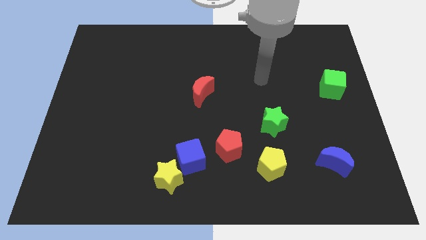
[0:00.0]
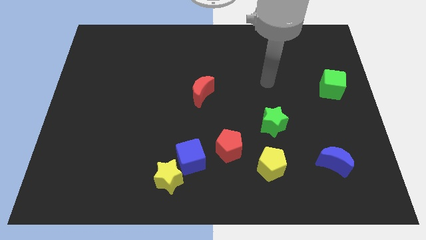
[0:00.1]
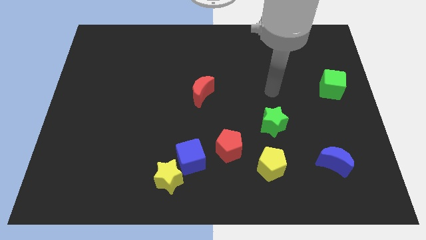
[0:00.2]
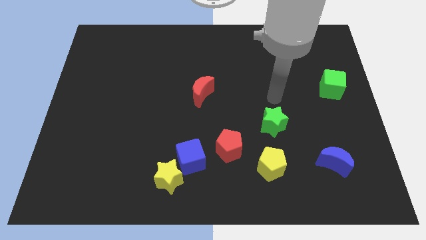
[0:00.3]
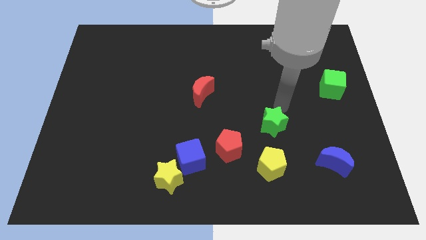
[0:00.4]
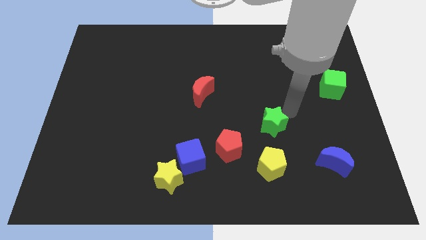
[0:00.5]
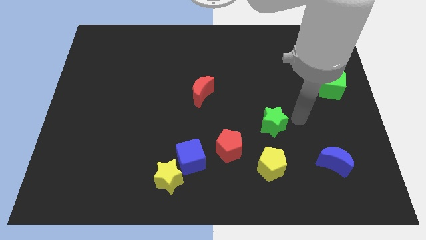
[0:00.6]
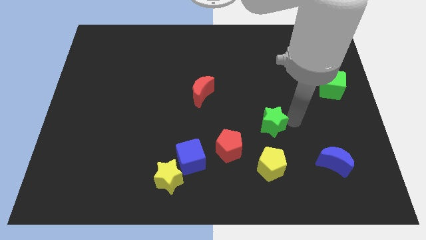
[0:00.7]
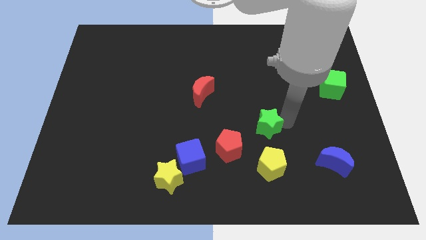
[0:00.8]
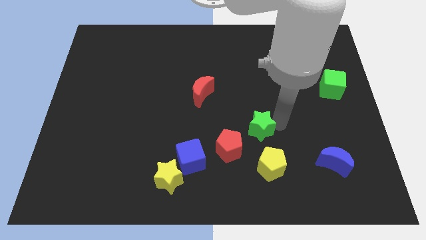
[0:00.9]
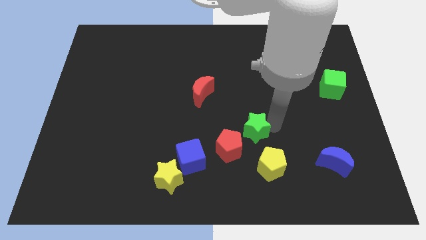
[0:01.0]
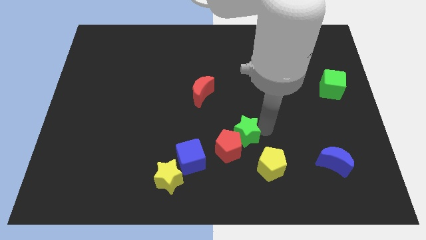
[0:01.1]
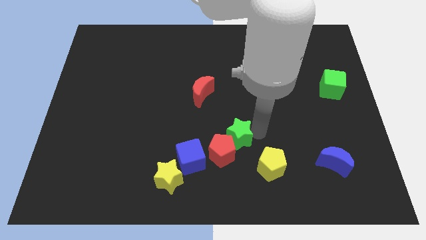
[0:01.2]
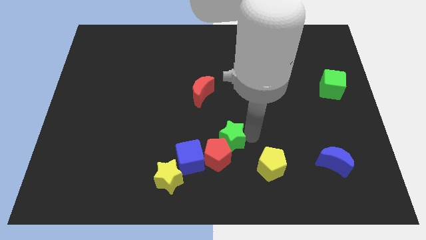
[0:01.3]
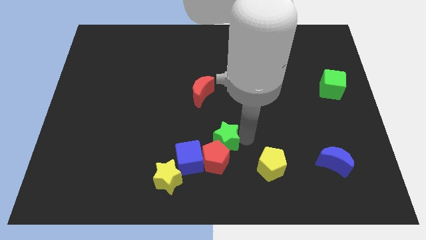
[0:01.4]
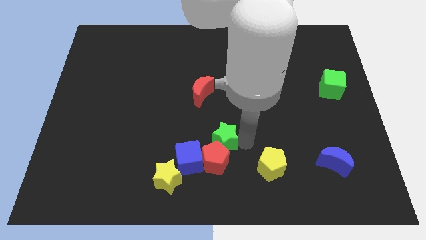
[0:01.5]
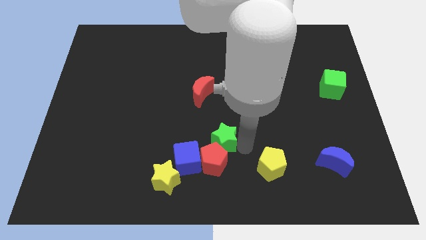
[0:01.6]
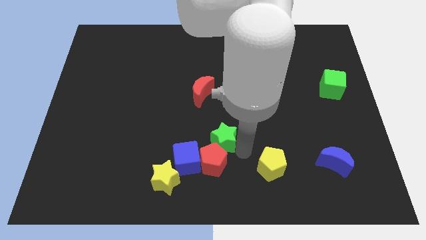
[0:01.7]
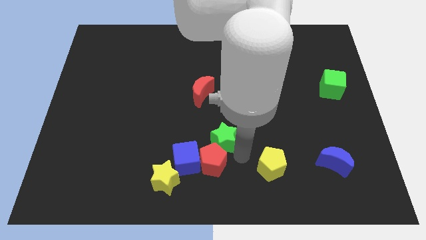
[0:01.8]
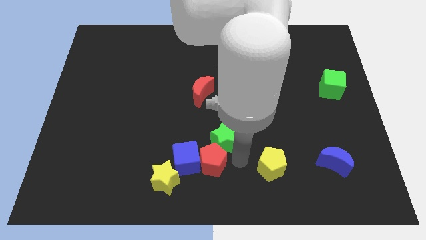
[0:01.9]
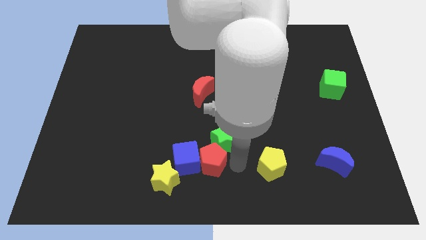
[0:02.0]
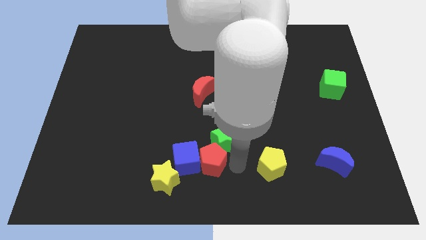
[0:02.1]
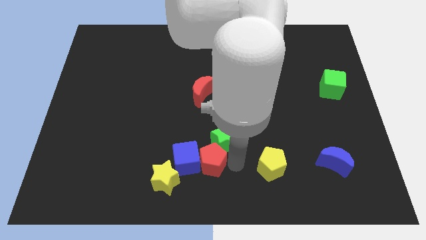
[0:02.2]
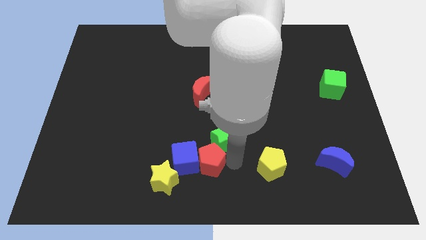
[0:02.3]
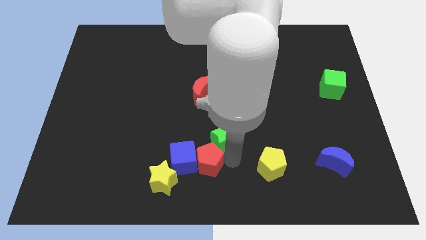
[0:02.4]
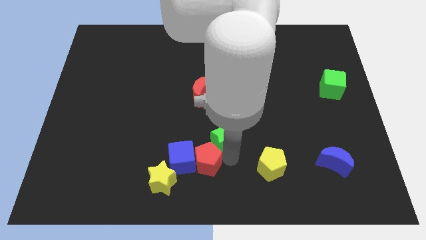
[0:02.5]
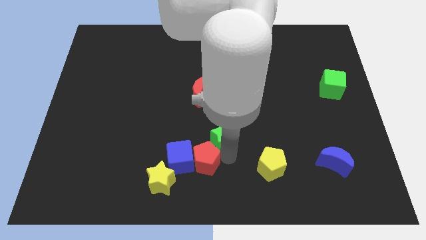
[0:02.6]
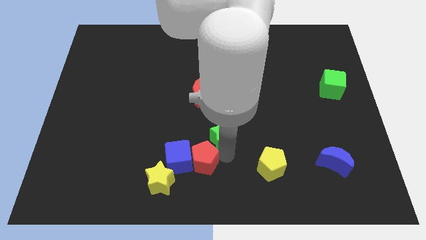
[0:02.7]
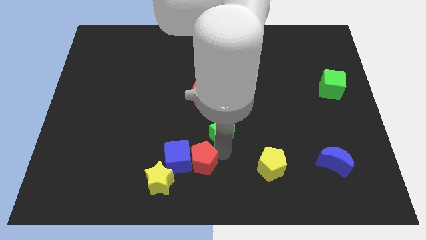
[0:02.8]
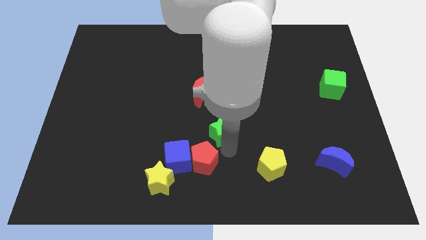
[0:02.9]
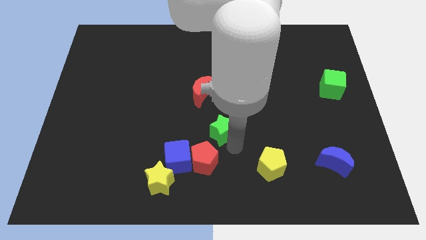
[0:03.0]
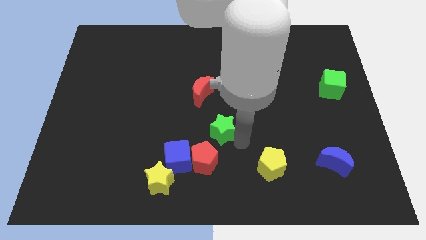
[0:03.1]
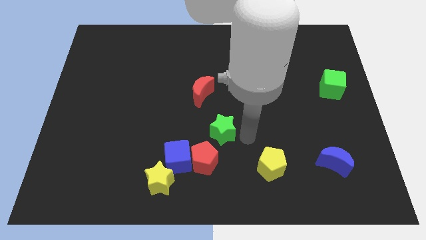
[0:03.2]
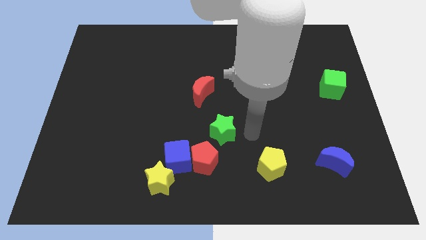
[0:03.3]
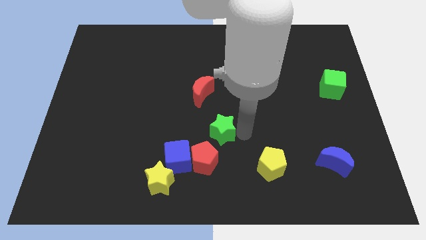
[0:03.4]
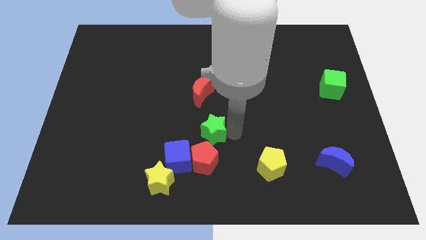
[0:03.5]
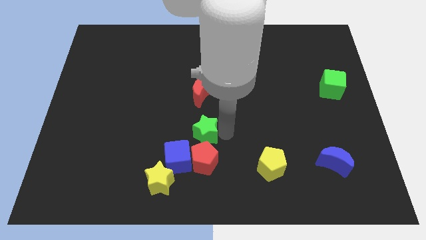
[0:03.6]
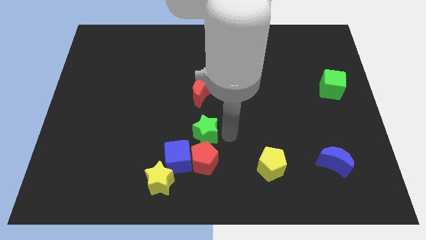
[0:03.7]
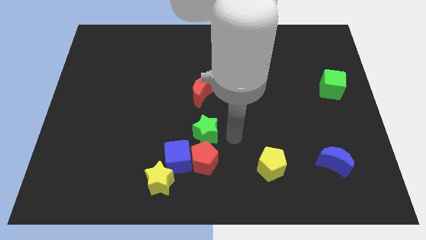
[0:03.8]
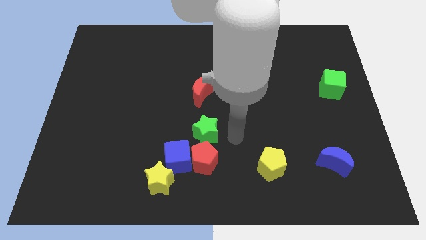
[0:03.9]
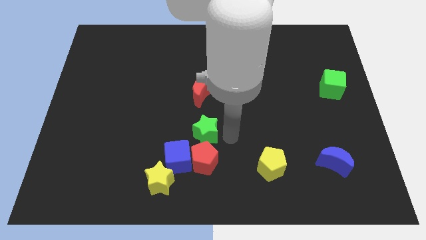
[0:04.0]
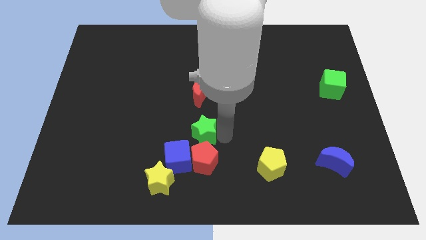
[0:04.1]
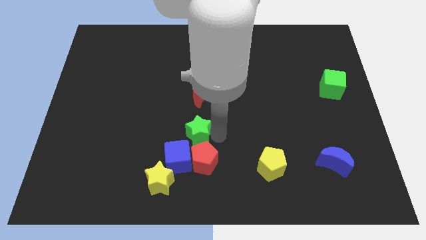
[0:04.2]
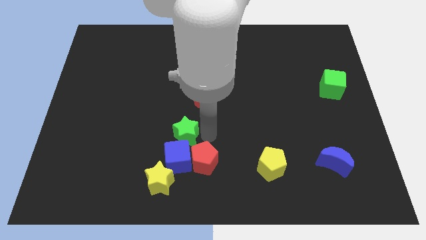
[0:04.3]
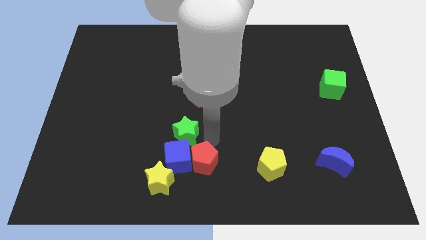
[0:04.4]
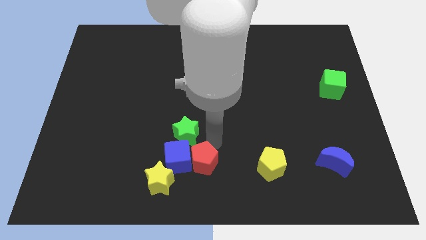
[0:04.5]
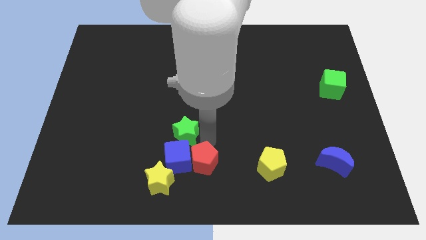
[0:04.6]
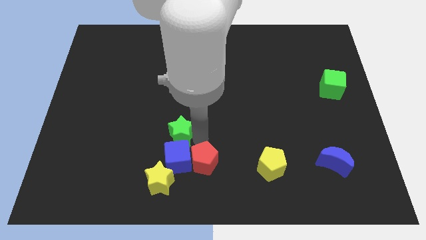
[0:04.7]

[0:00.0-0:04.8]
push the green star left

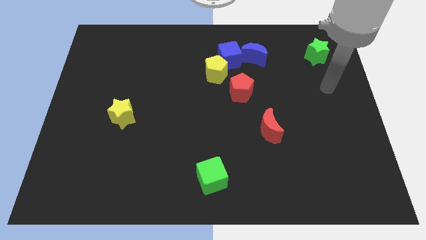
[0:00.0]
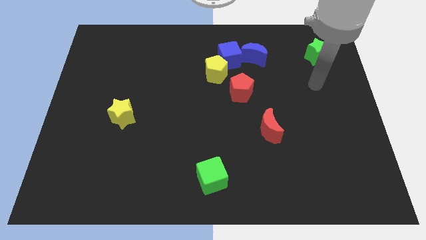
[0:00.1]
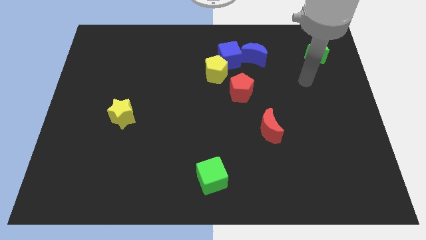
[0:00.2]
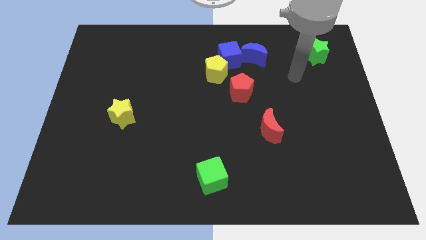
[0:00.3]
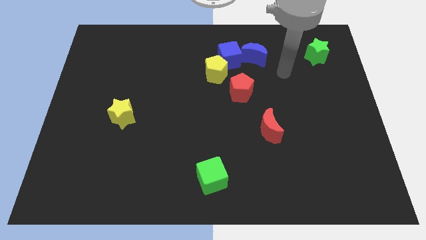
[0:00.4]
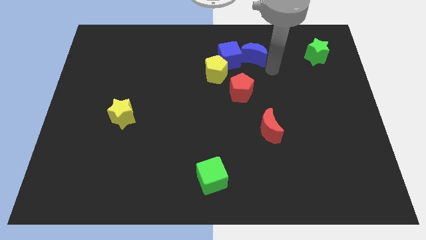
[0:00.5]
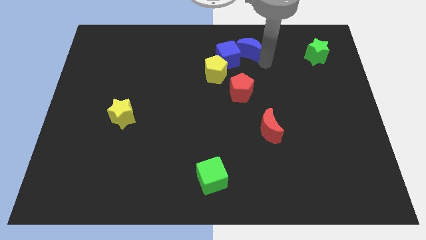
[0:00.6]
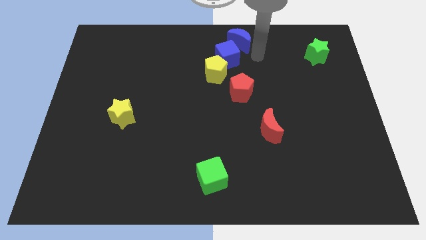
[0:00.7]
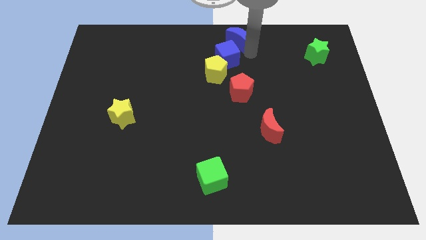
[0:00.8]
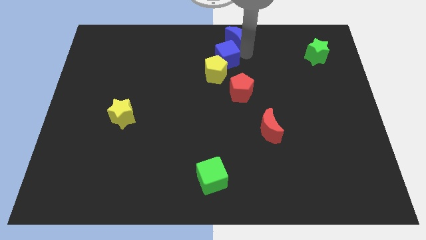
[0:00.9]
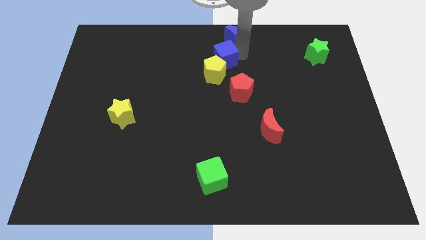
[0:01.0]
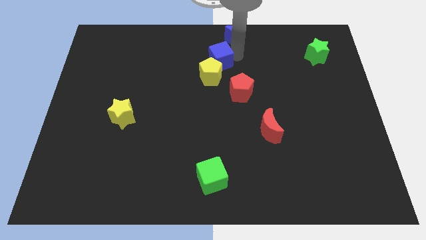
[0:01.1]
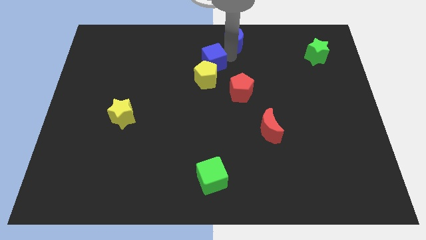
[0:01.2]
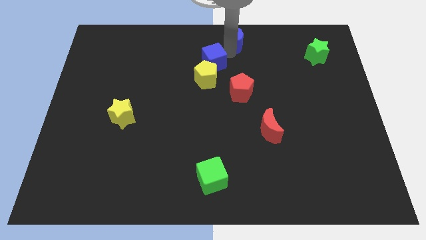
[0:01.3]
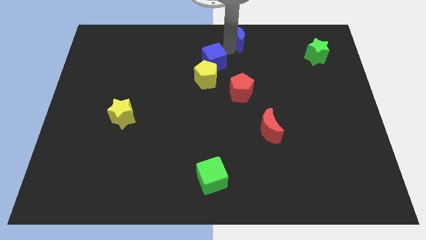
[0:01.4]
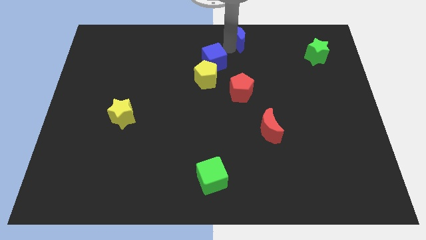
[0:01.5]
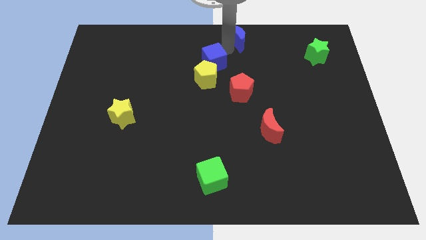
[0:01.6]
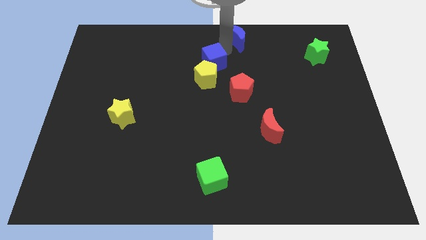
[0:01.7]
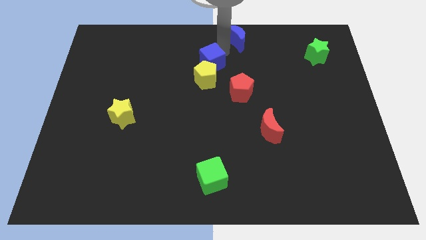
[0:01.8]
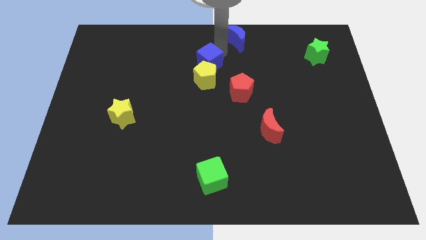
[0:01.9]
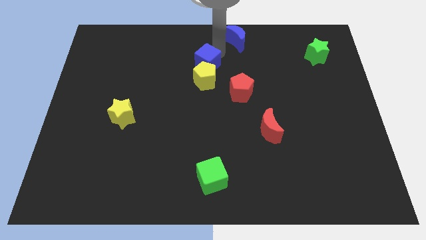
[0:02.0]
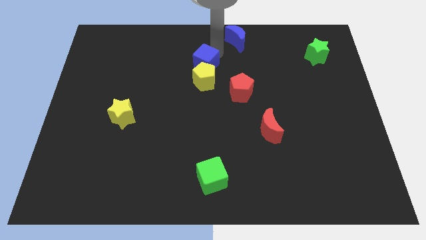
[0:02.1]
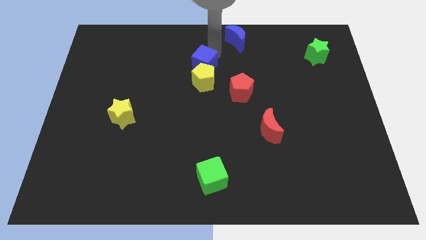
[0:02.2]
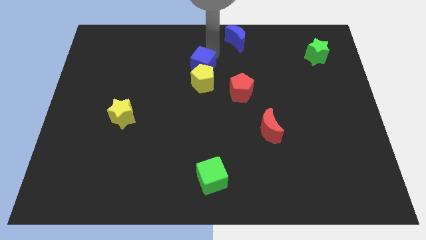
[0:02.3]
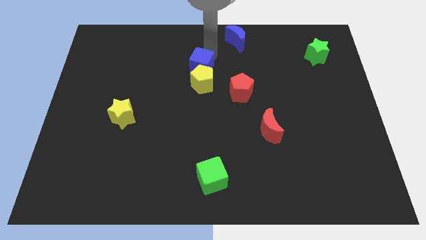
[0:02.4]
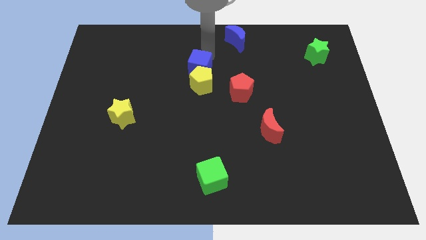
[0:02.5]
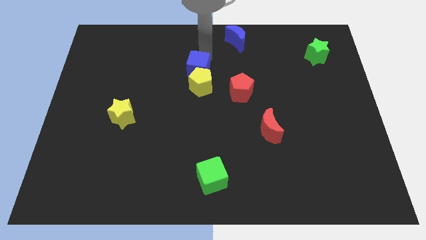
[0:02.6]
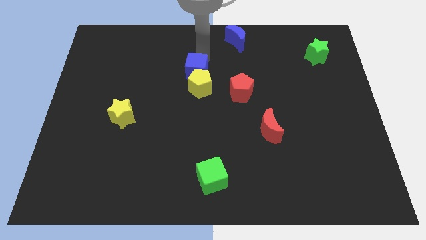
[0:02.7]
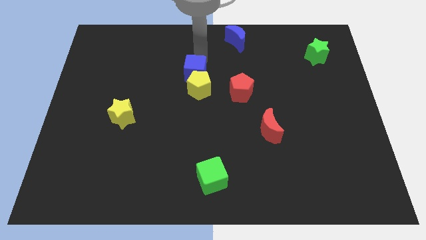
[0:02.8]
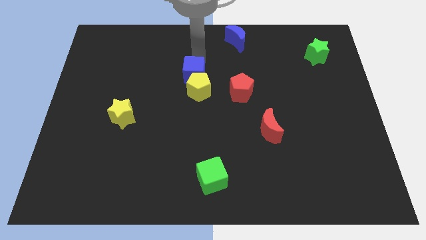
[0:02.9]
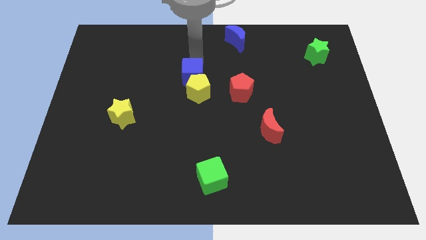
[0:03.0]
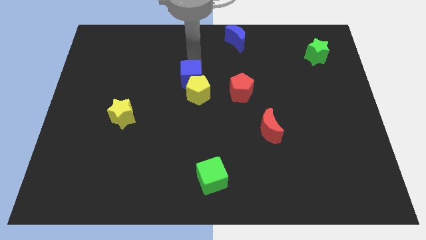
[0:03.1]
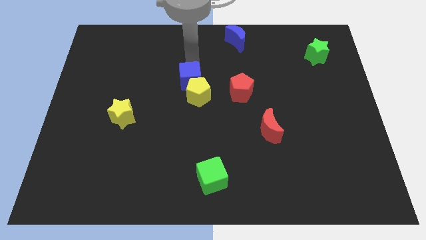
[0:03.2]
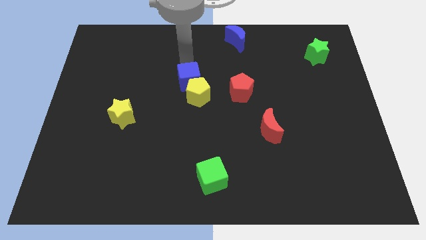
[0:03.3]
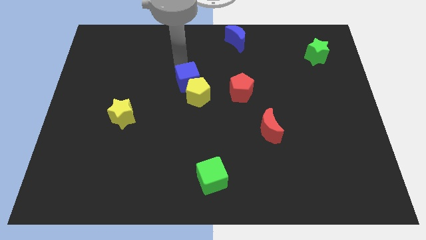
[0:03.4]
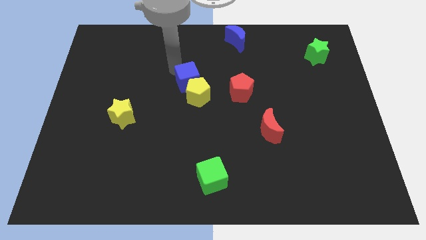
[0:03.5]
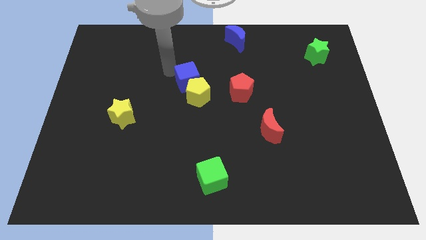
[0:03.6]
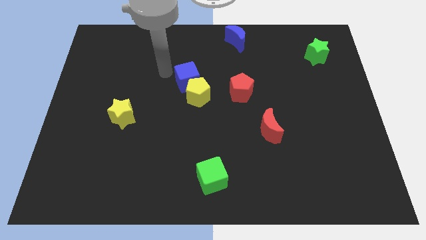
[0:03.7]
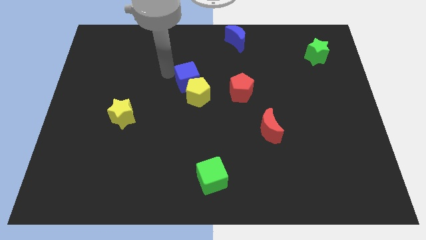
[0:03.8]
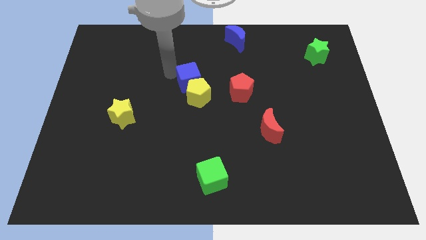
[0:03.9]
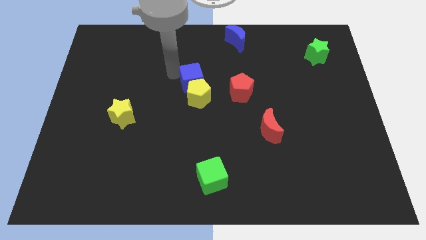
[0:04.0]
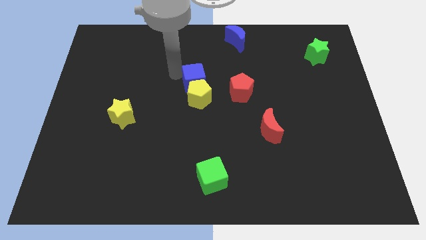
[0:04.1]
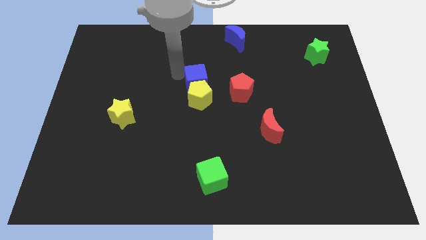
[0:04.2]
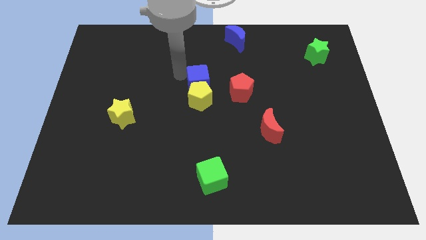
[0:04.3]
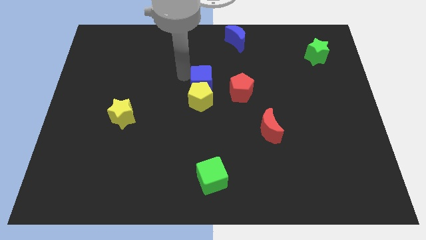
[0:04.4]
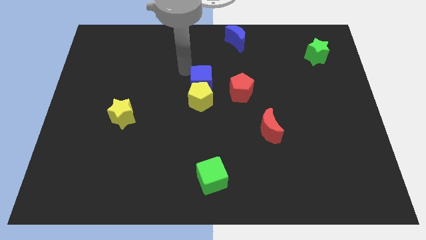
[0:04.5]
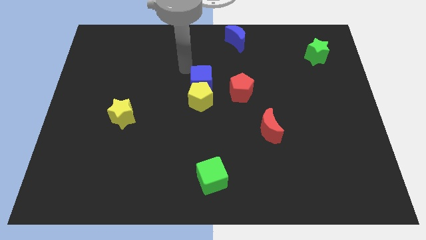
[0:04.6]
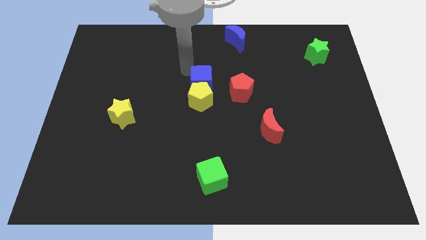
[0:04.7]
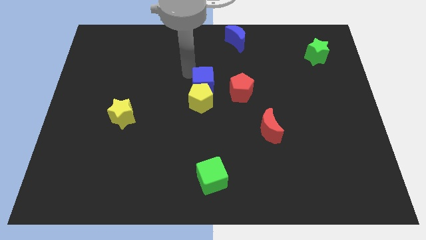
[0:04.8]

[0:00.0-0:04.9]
slightly move the blue cube downwards
